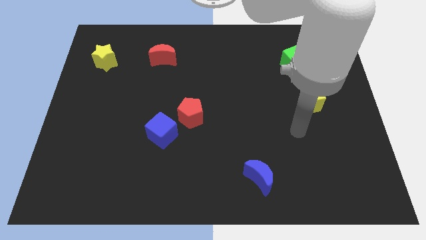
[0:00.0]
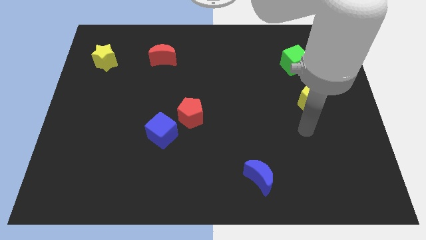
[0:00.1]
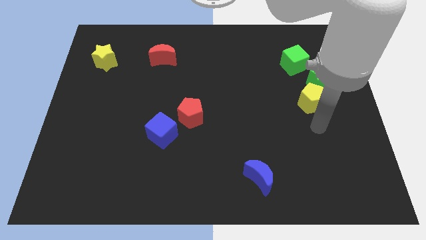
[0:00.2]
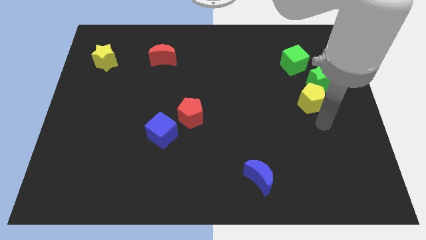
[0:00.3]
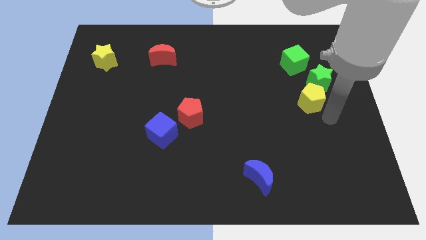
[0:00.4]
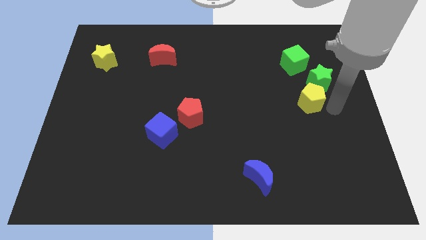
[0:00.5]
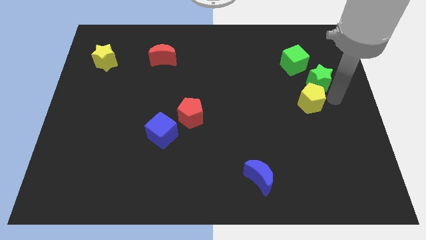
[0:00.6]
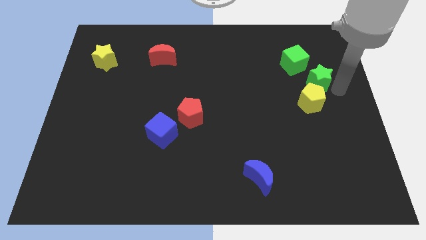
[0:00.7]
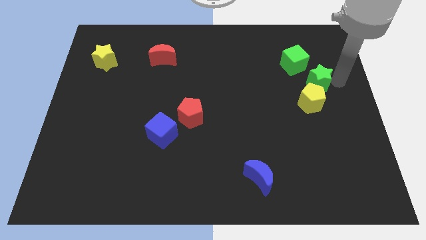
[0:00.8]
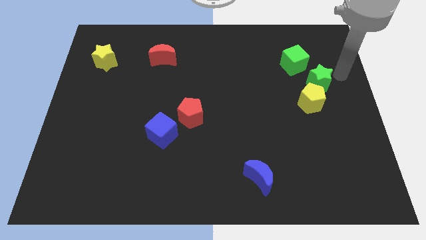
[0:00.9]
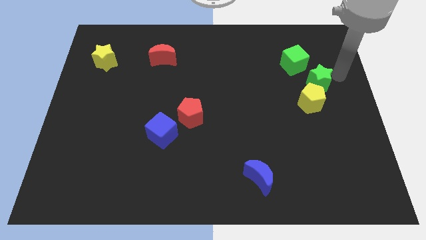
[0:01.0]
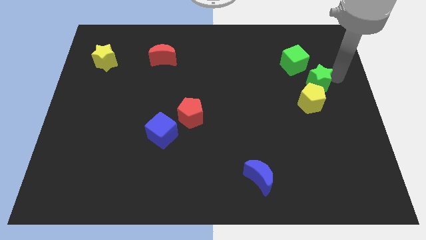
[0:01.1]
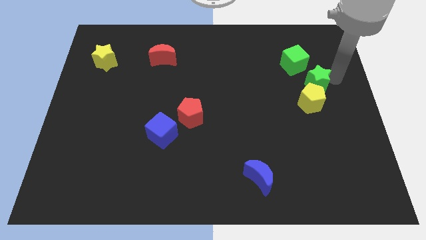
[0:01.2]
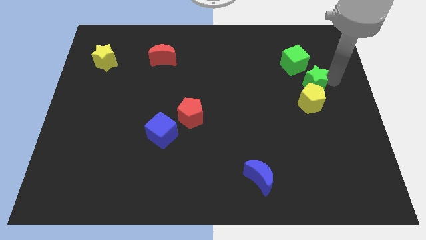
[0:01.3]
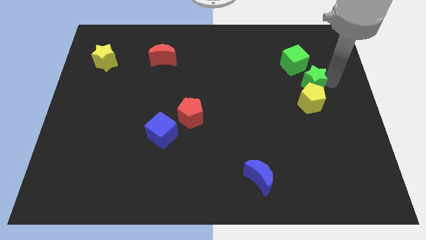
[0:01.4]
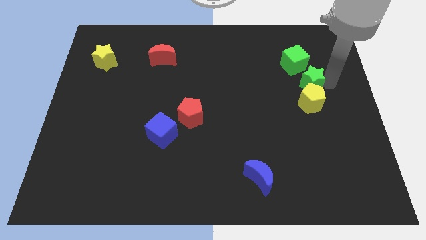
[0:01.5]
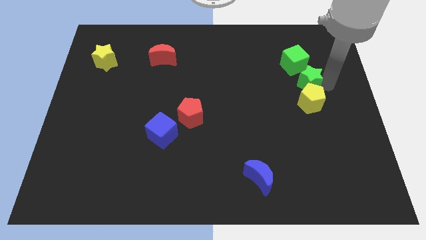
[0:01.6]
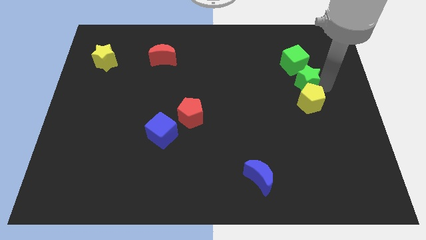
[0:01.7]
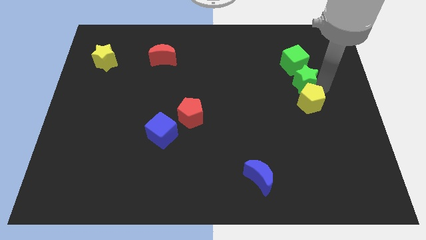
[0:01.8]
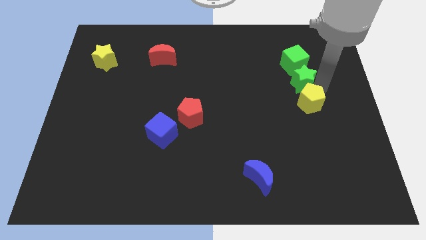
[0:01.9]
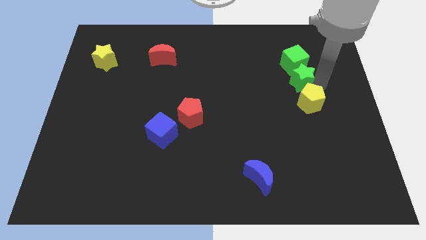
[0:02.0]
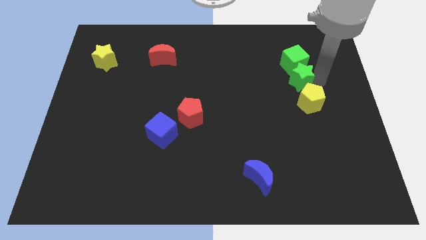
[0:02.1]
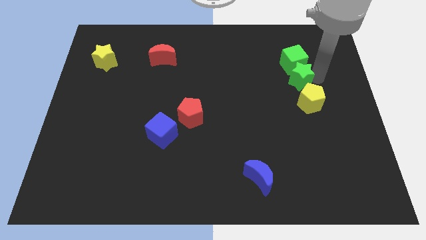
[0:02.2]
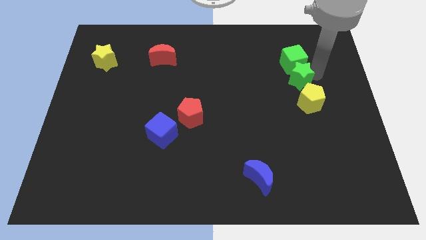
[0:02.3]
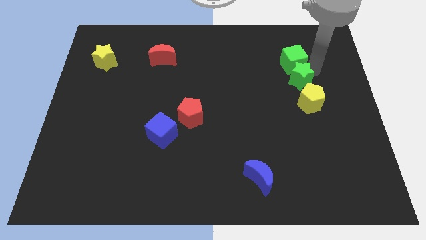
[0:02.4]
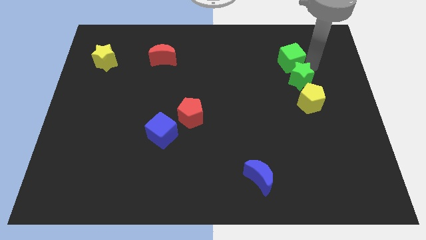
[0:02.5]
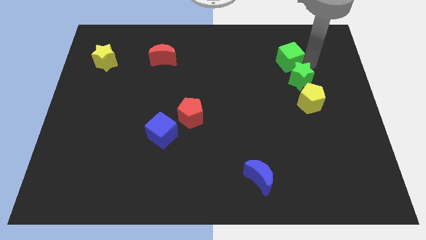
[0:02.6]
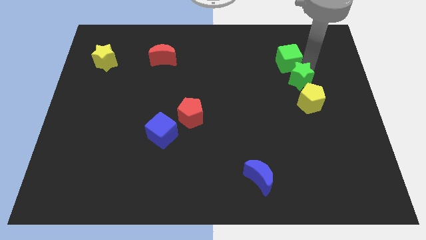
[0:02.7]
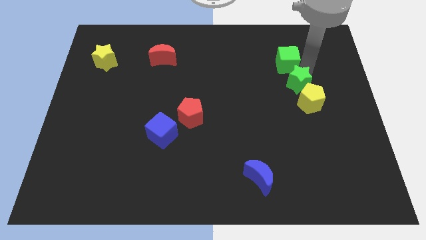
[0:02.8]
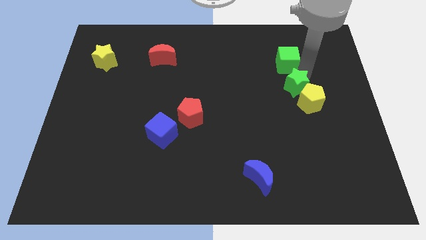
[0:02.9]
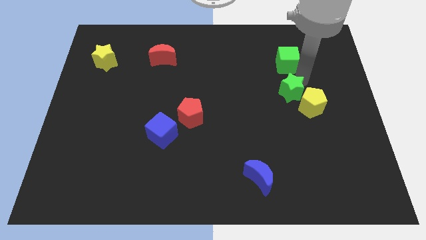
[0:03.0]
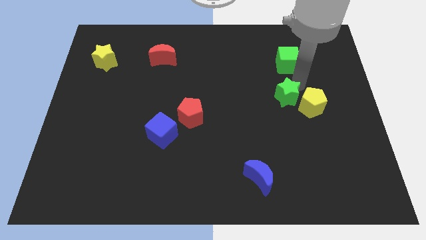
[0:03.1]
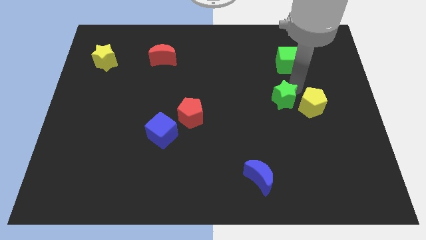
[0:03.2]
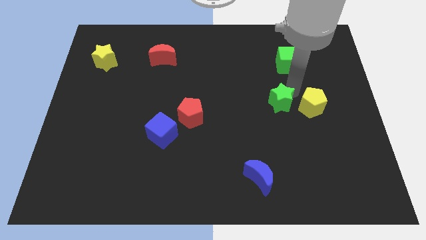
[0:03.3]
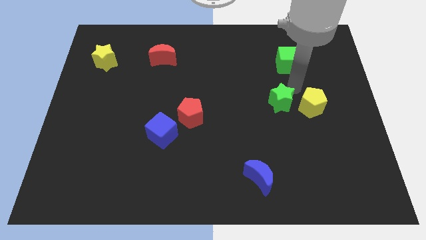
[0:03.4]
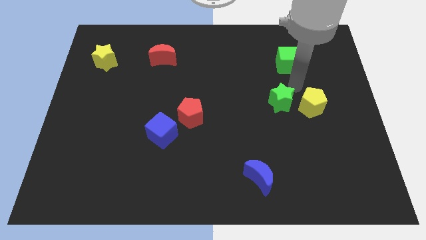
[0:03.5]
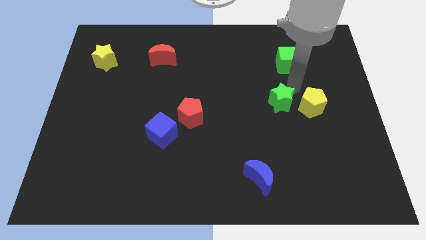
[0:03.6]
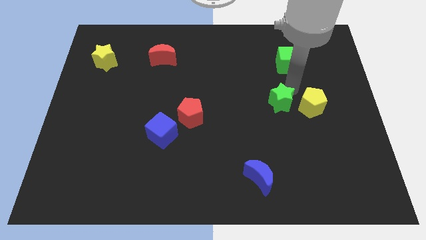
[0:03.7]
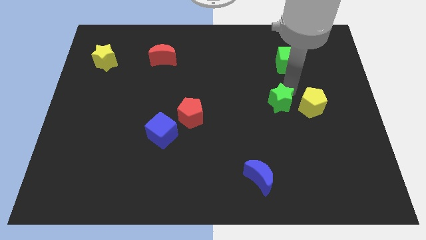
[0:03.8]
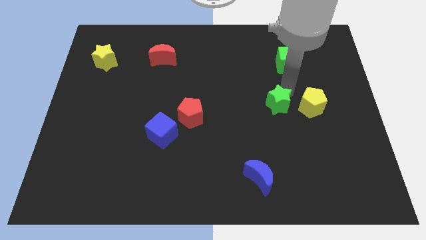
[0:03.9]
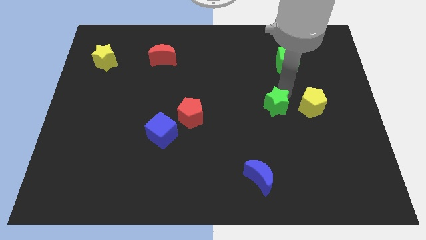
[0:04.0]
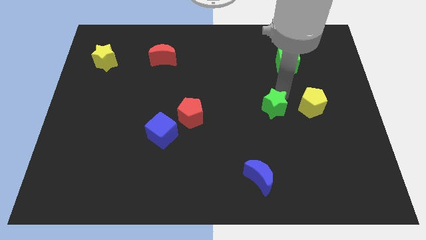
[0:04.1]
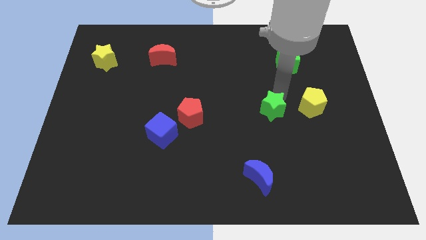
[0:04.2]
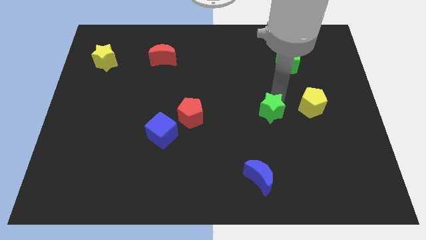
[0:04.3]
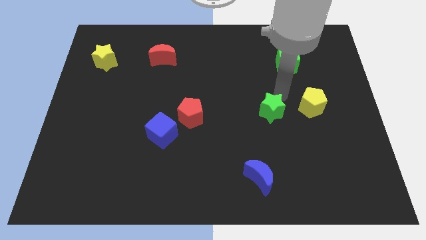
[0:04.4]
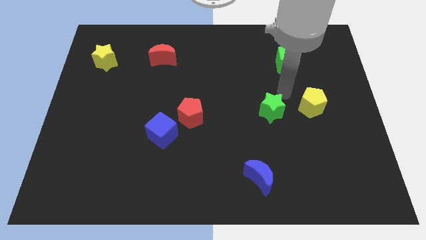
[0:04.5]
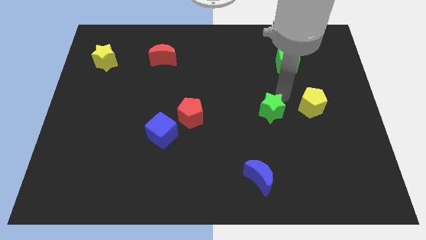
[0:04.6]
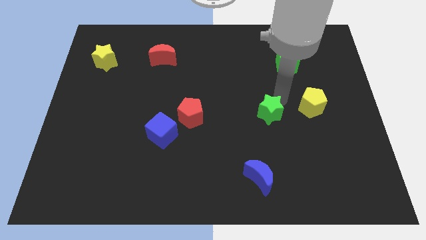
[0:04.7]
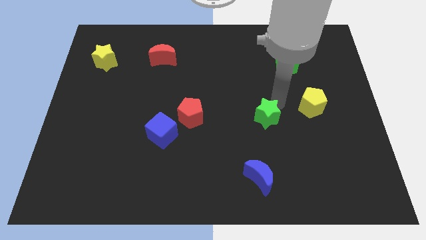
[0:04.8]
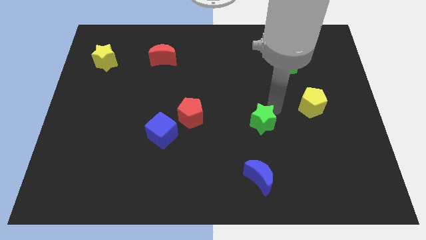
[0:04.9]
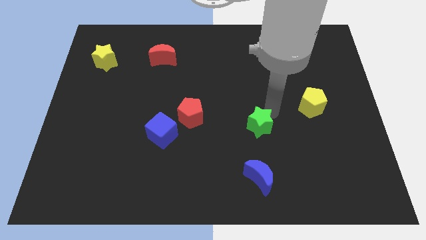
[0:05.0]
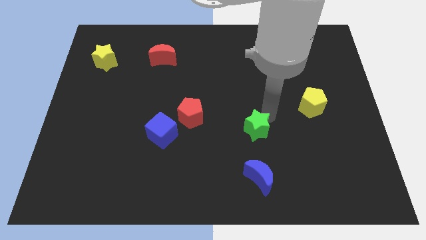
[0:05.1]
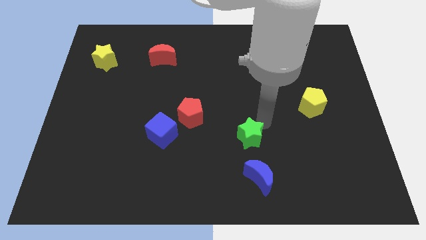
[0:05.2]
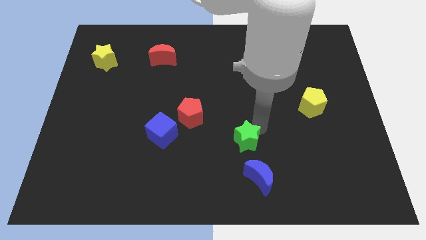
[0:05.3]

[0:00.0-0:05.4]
slide the green star diagonally up and to the left of the blue moon

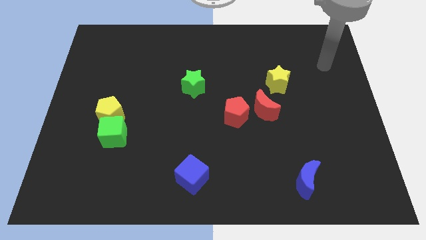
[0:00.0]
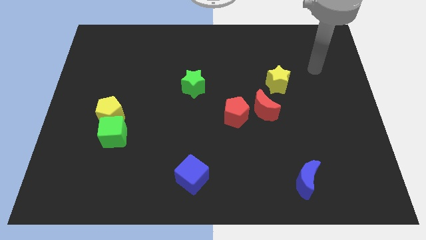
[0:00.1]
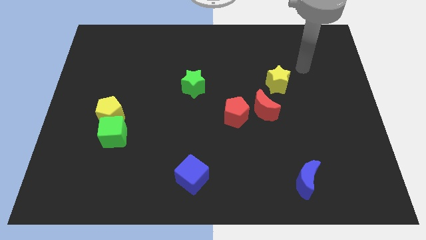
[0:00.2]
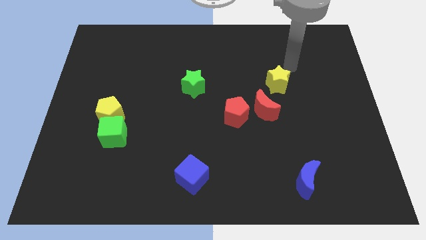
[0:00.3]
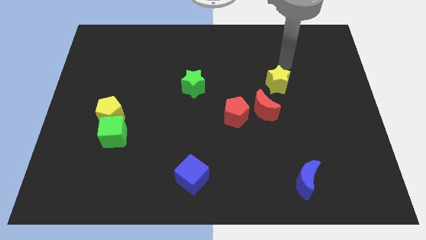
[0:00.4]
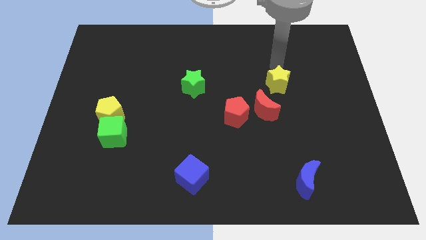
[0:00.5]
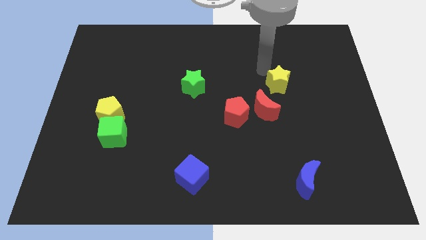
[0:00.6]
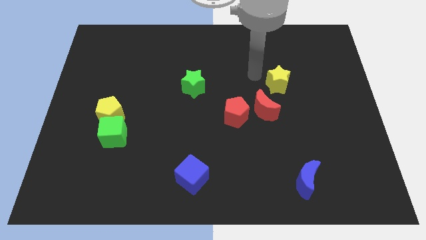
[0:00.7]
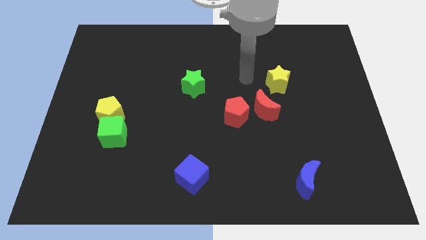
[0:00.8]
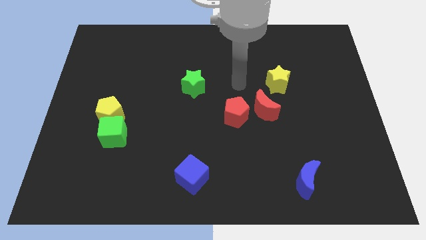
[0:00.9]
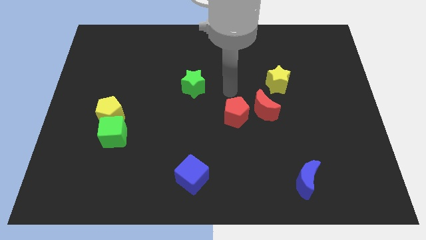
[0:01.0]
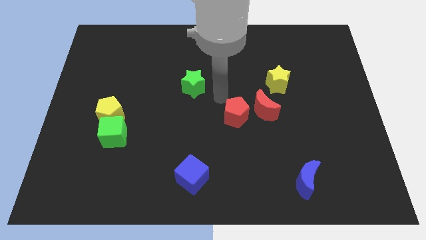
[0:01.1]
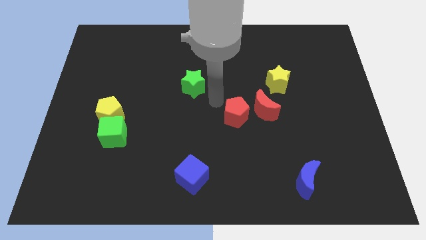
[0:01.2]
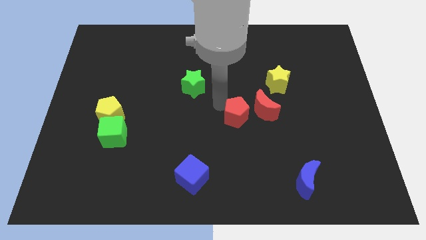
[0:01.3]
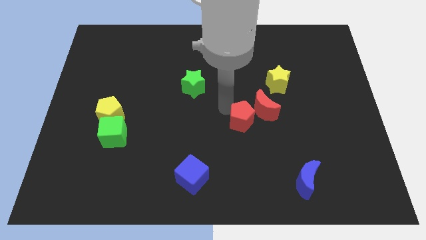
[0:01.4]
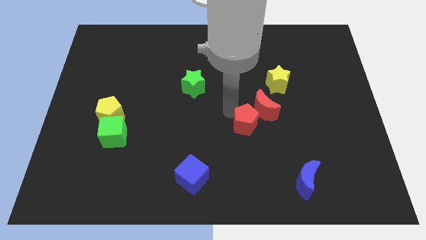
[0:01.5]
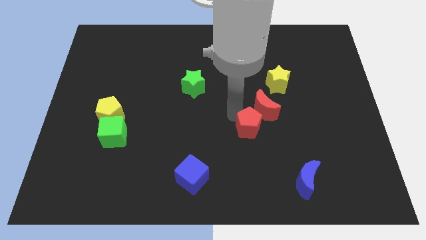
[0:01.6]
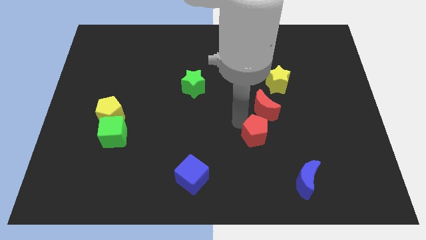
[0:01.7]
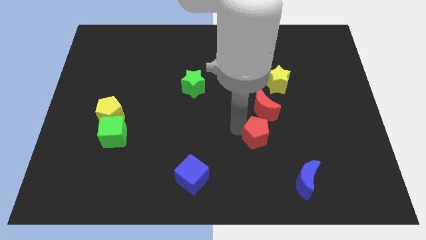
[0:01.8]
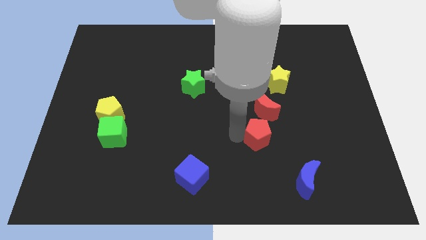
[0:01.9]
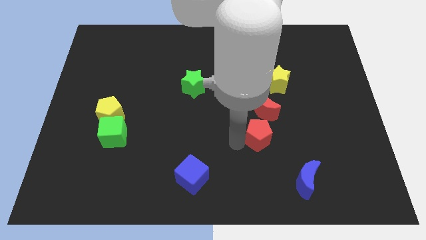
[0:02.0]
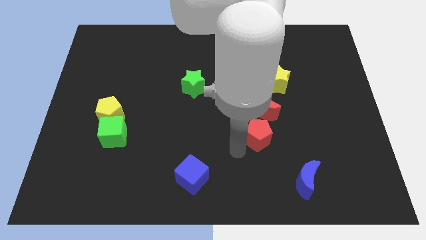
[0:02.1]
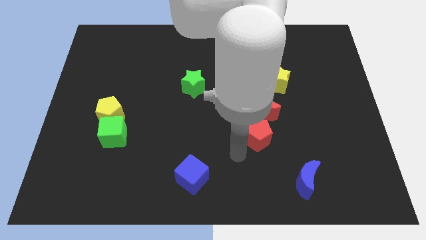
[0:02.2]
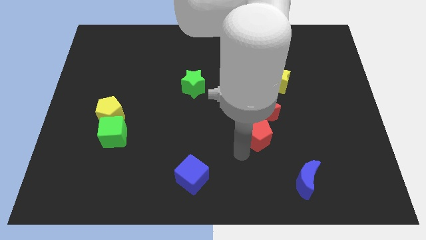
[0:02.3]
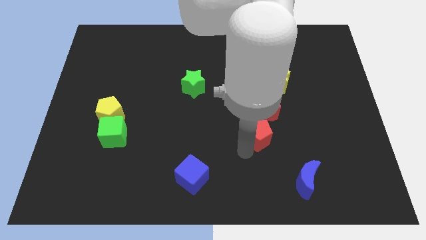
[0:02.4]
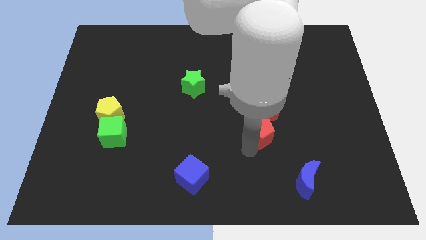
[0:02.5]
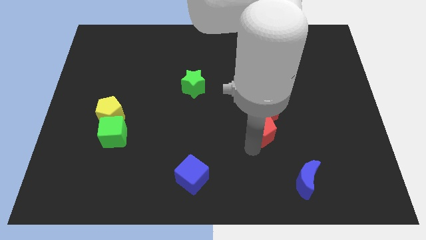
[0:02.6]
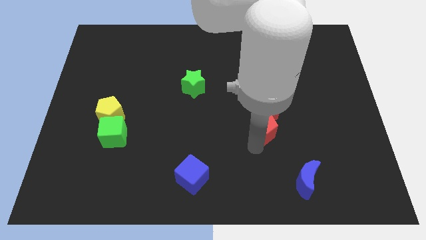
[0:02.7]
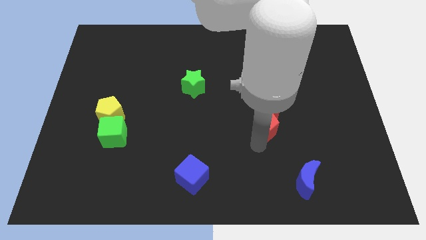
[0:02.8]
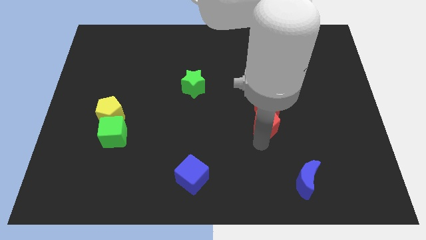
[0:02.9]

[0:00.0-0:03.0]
put the red pentagon to the bottom side of the yellow star

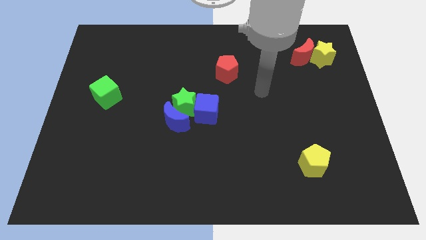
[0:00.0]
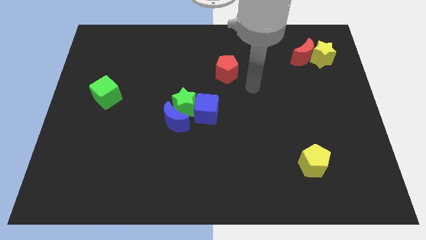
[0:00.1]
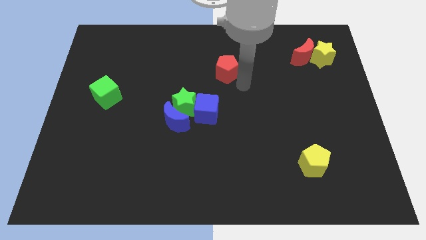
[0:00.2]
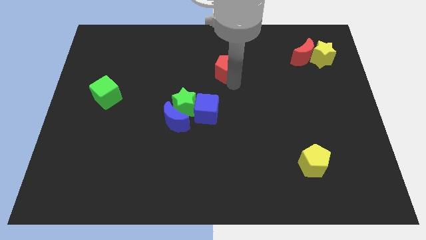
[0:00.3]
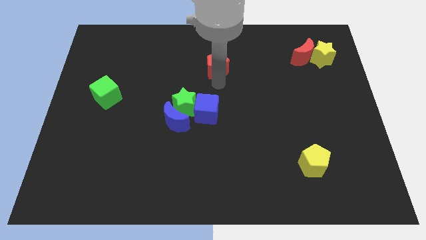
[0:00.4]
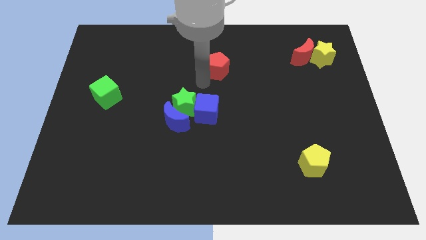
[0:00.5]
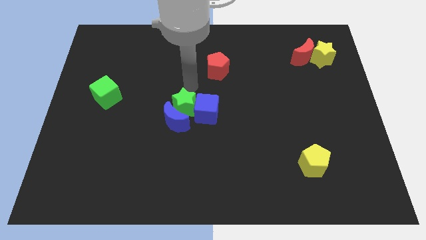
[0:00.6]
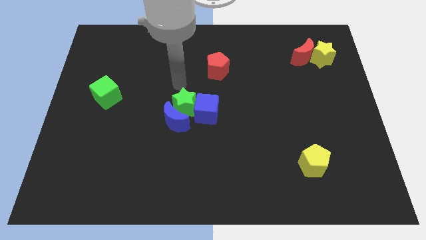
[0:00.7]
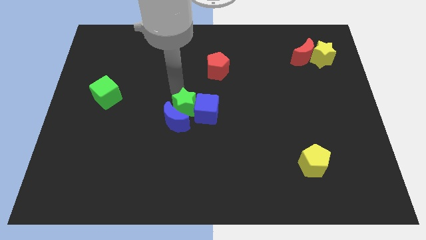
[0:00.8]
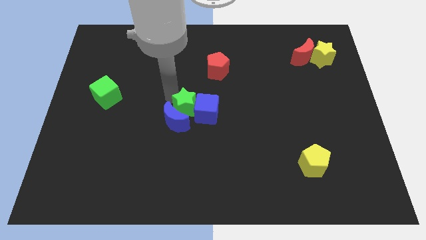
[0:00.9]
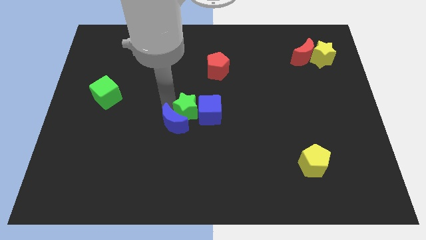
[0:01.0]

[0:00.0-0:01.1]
push the green star to the right of the blue moon
